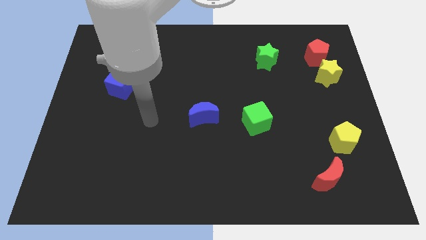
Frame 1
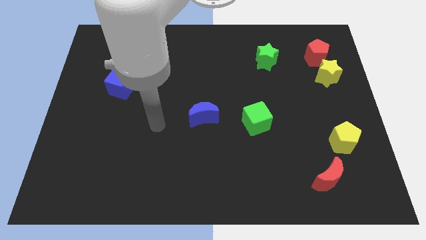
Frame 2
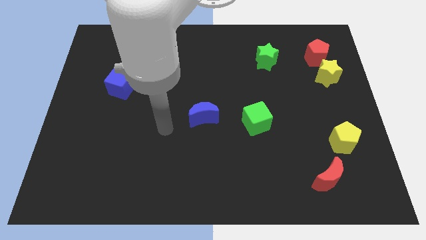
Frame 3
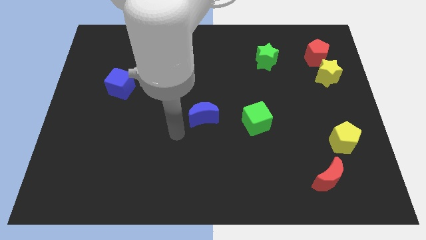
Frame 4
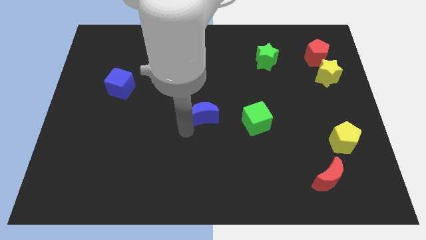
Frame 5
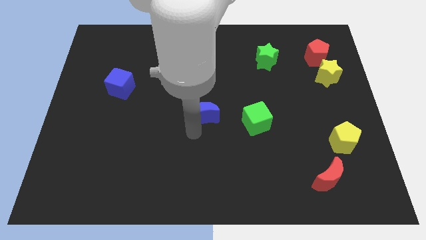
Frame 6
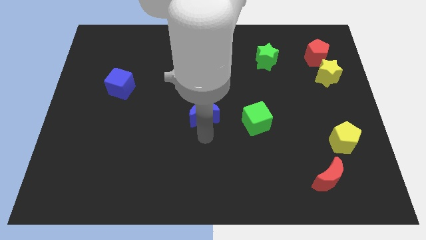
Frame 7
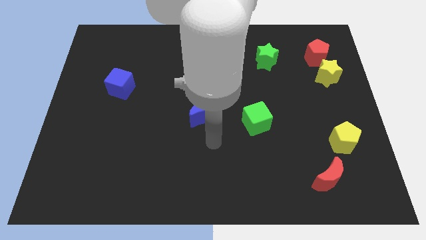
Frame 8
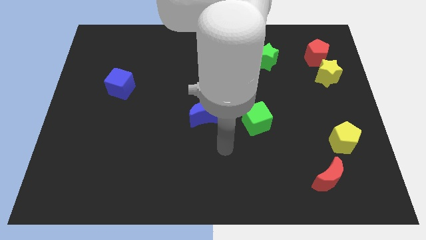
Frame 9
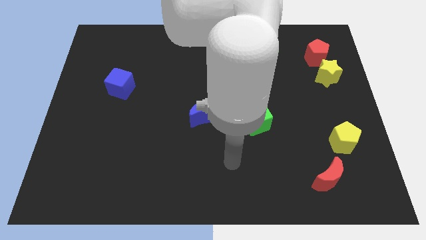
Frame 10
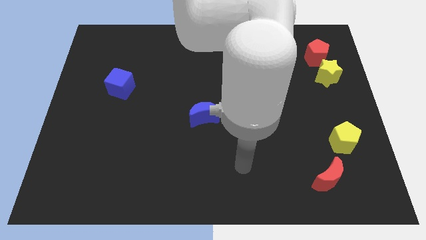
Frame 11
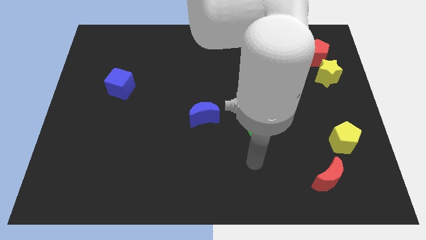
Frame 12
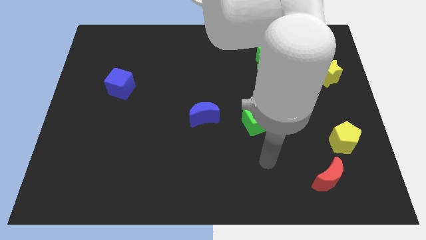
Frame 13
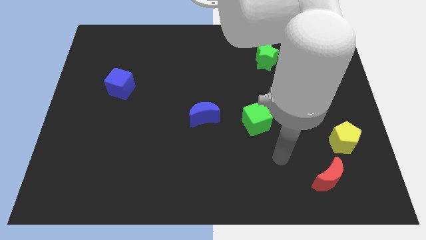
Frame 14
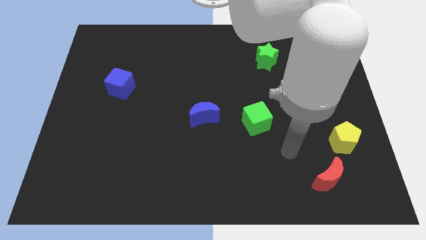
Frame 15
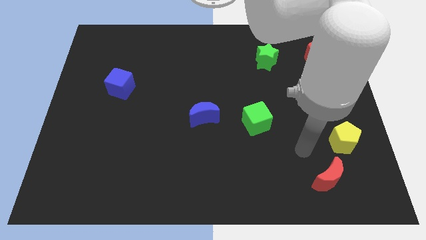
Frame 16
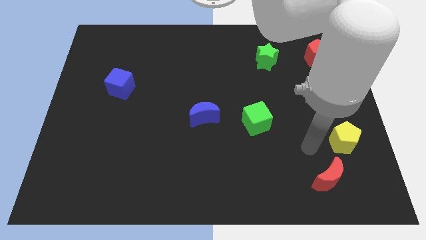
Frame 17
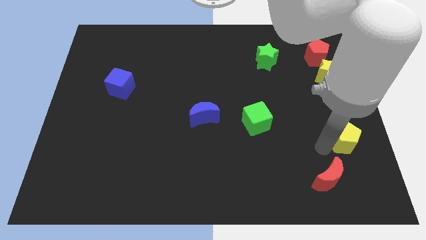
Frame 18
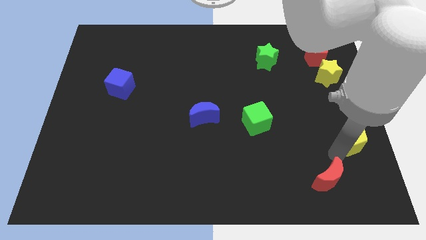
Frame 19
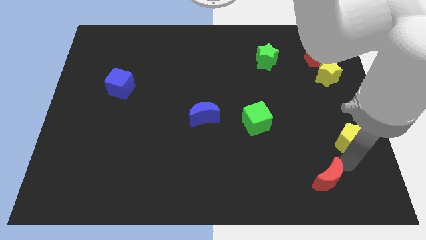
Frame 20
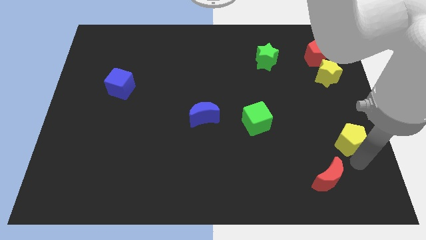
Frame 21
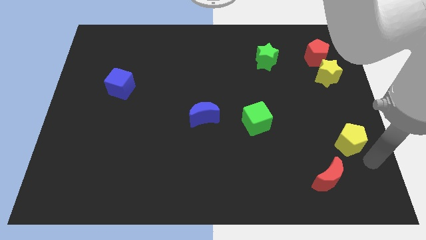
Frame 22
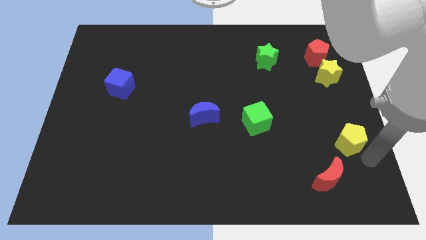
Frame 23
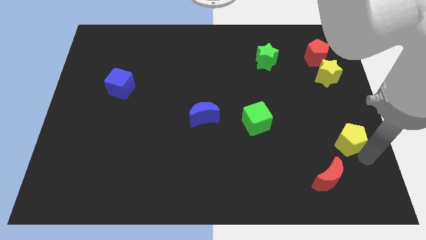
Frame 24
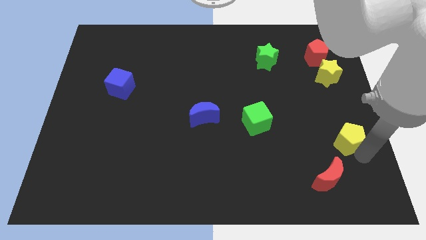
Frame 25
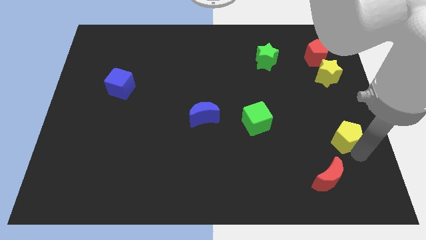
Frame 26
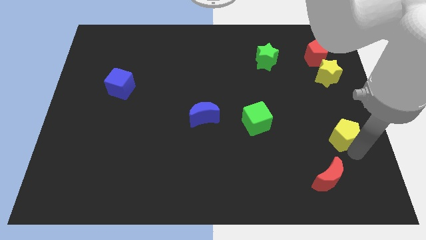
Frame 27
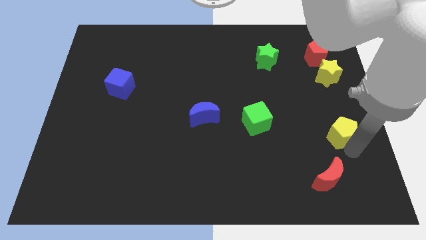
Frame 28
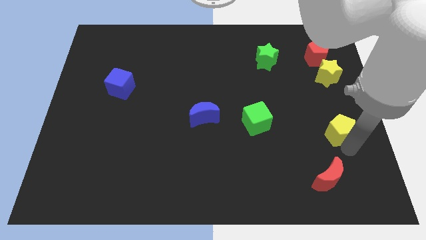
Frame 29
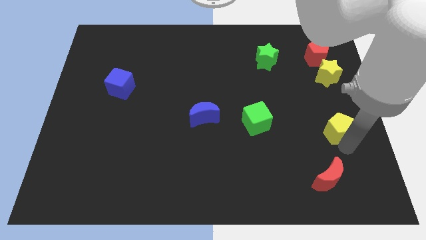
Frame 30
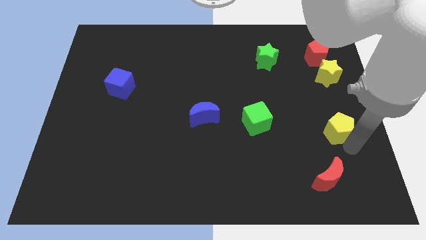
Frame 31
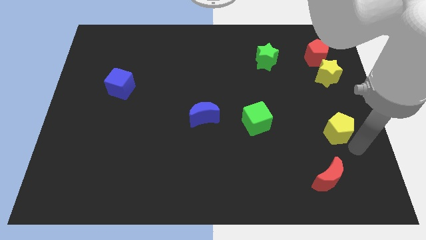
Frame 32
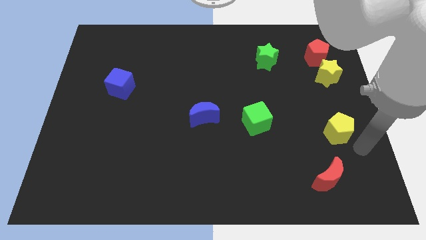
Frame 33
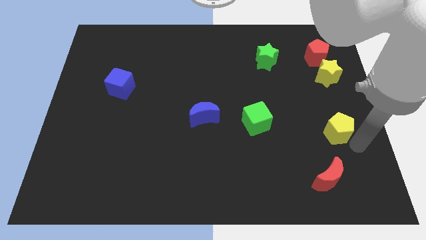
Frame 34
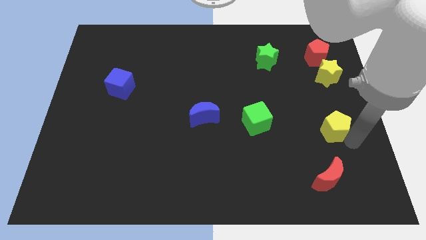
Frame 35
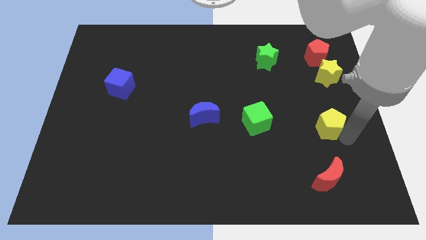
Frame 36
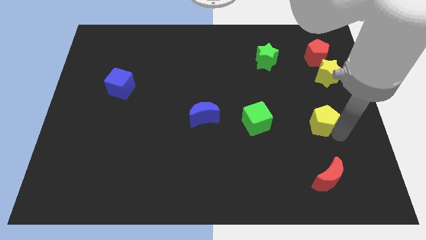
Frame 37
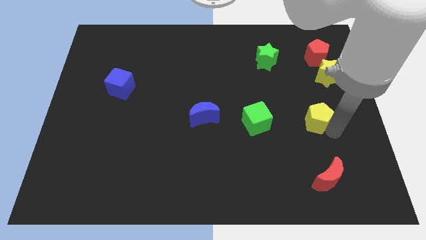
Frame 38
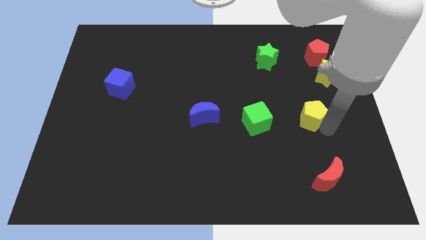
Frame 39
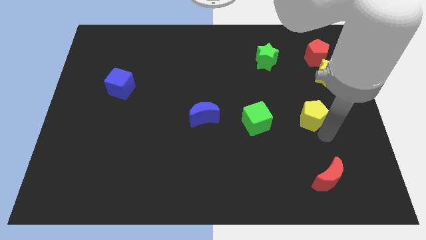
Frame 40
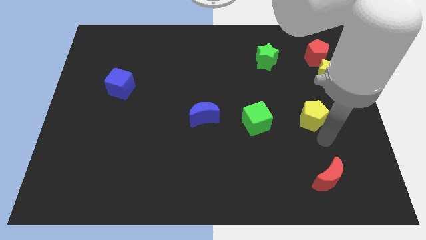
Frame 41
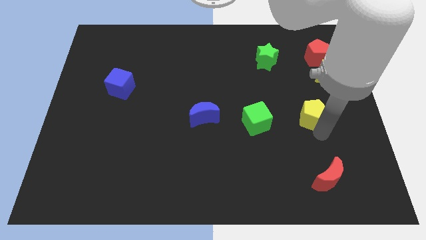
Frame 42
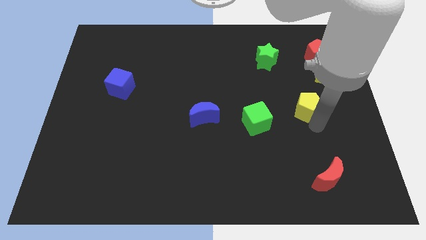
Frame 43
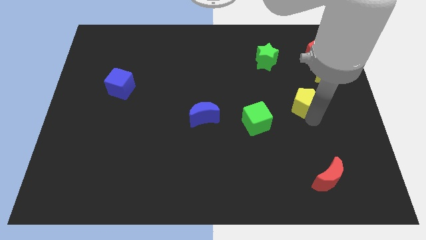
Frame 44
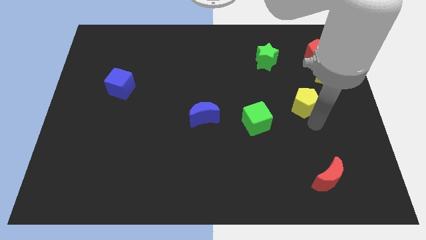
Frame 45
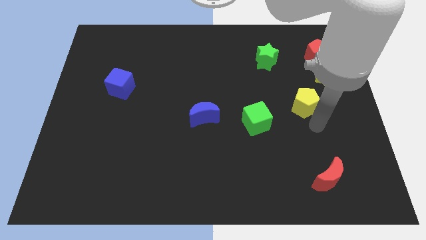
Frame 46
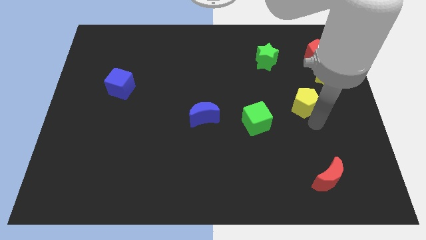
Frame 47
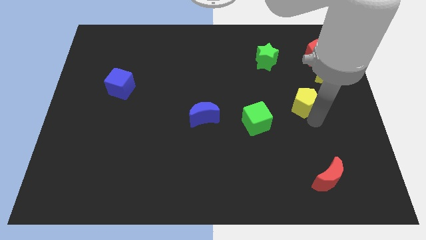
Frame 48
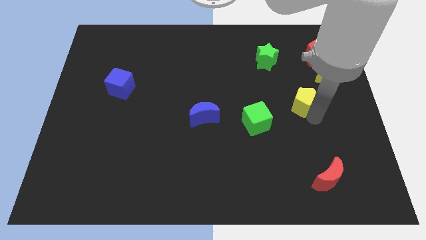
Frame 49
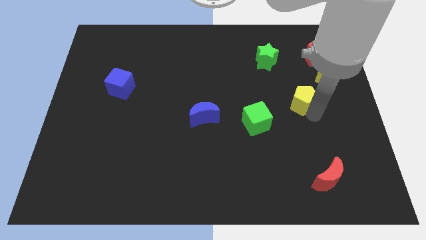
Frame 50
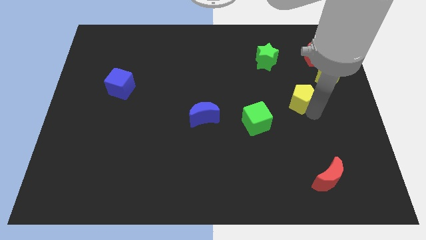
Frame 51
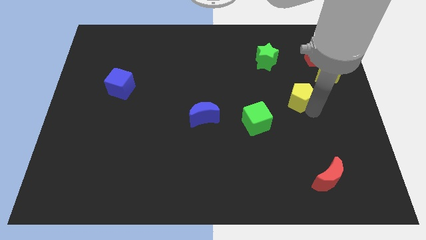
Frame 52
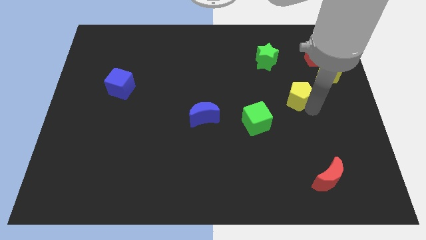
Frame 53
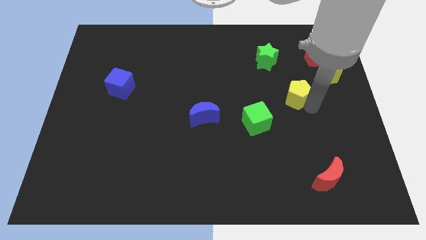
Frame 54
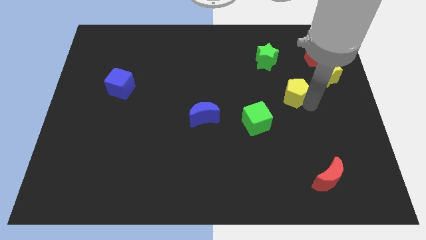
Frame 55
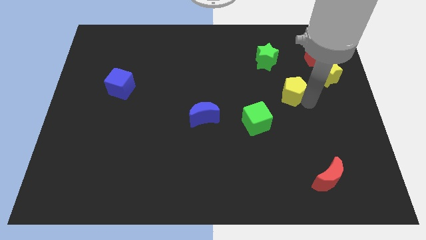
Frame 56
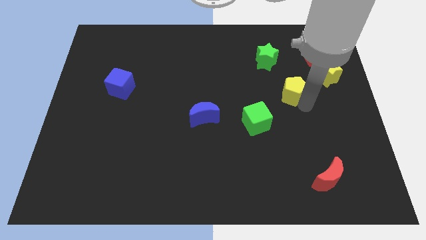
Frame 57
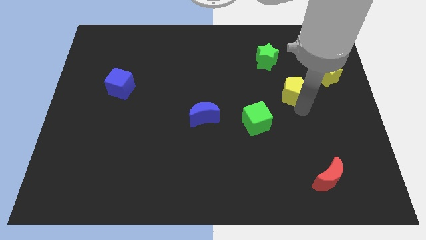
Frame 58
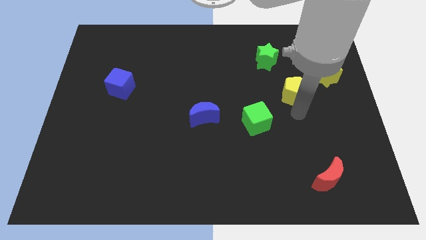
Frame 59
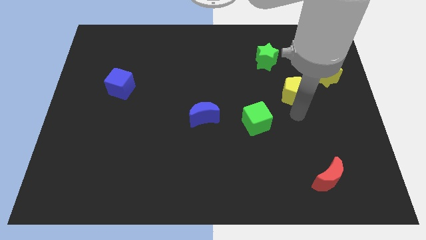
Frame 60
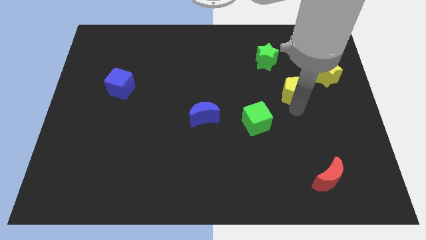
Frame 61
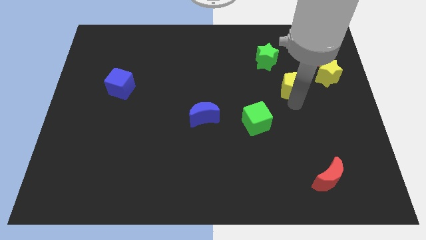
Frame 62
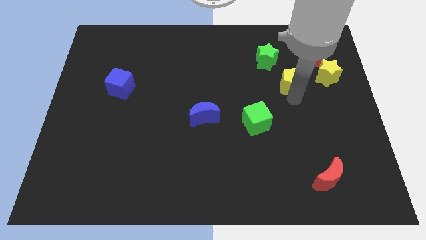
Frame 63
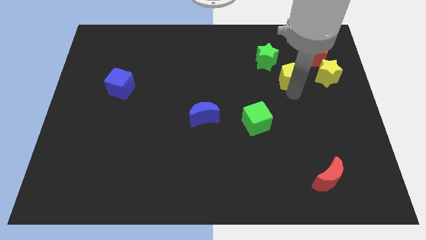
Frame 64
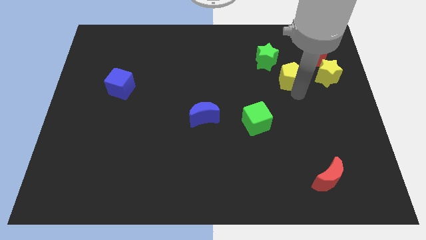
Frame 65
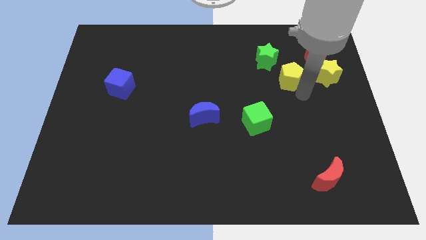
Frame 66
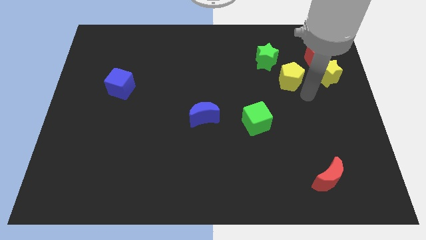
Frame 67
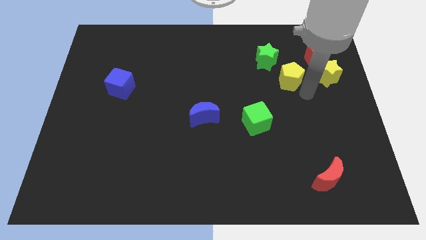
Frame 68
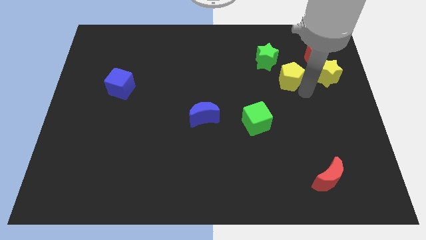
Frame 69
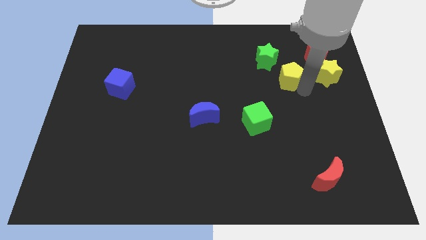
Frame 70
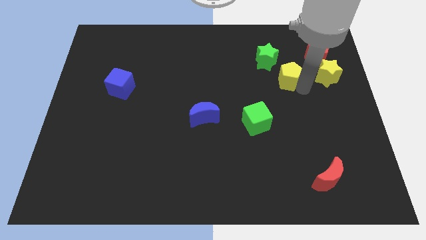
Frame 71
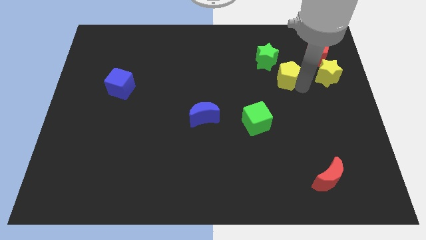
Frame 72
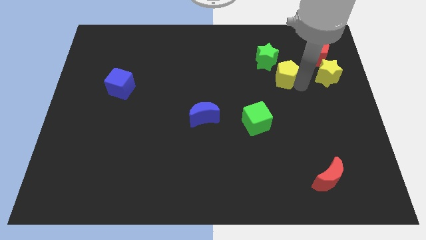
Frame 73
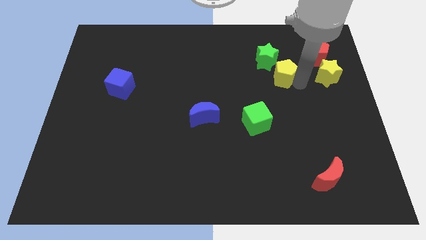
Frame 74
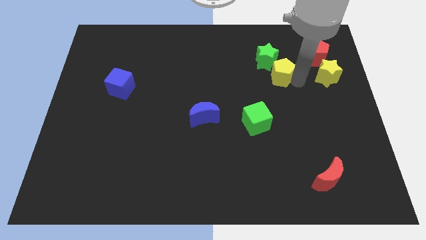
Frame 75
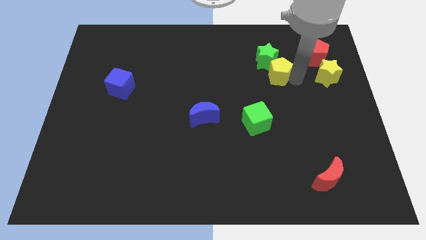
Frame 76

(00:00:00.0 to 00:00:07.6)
slide the yellow pentagon close to the green star
